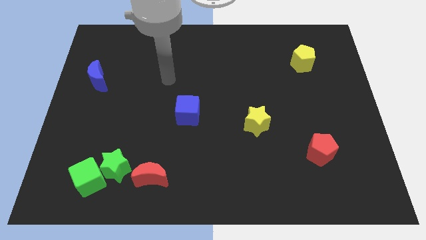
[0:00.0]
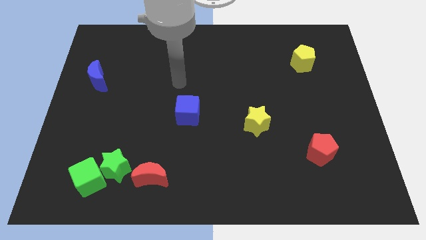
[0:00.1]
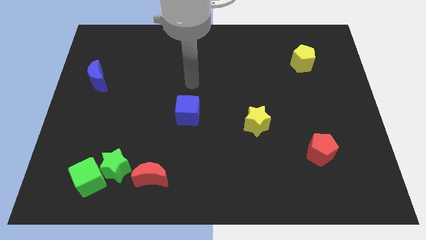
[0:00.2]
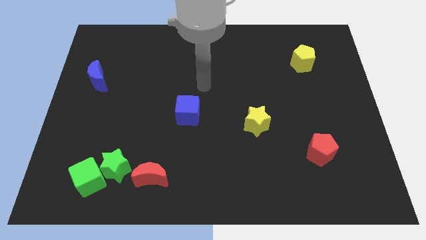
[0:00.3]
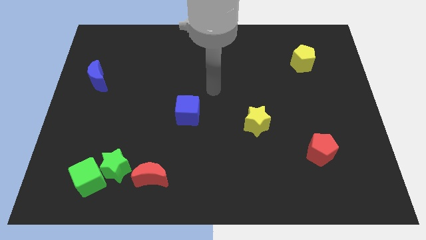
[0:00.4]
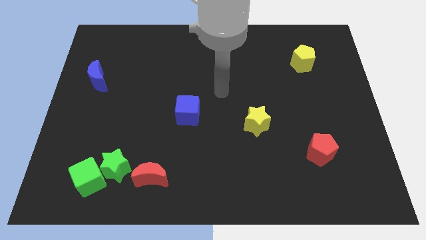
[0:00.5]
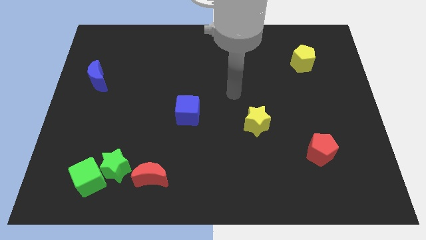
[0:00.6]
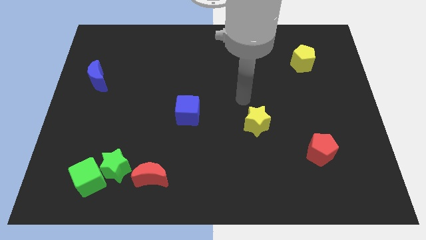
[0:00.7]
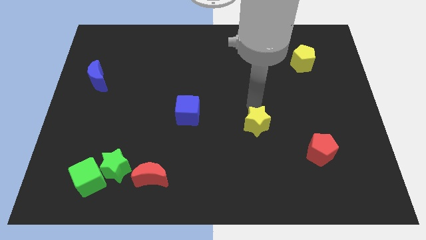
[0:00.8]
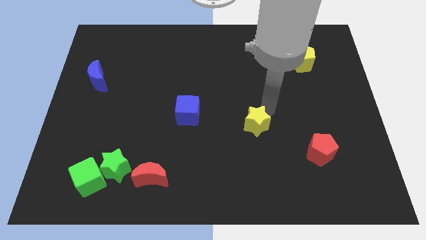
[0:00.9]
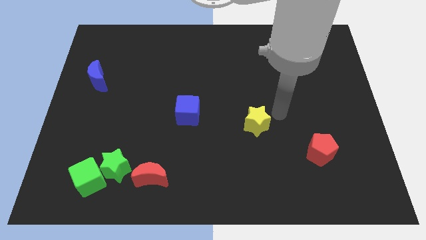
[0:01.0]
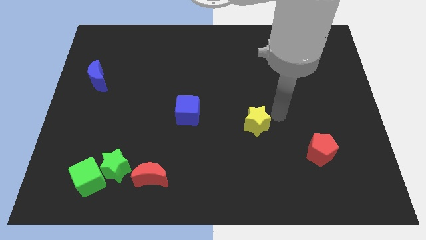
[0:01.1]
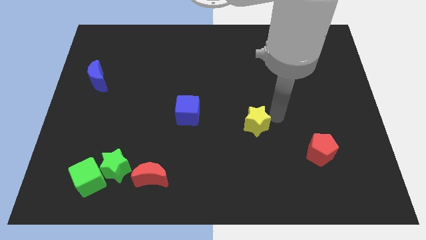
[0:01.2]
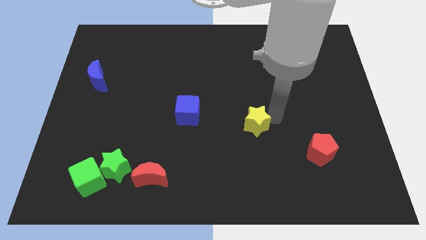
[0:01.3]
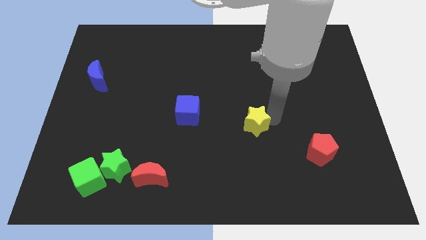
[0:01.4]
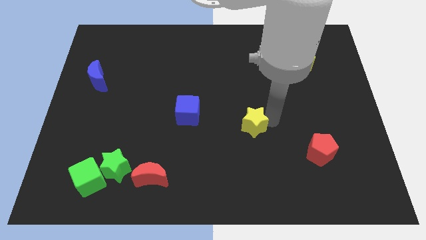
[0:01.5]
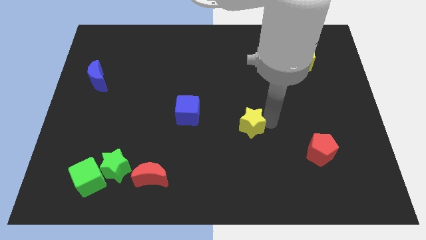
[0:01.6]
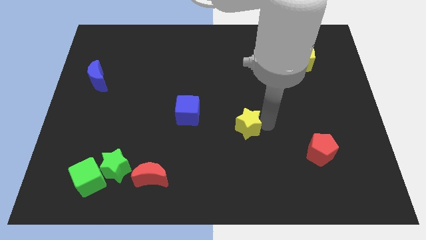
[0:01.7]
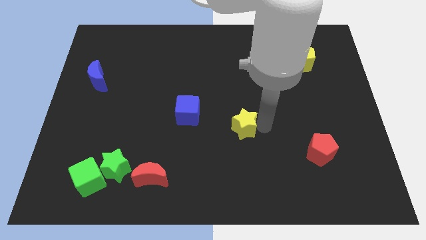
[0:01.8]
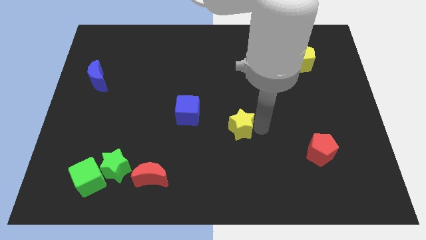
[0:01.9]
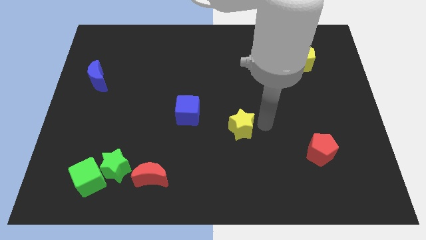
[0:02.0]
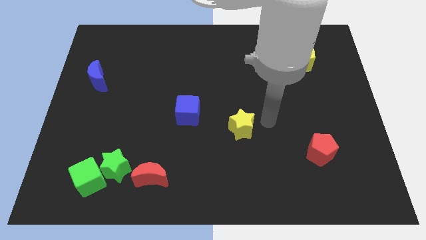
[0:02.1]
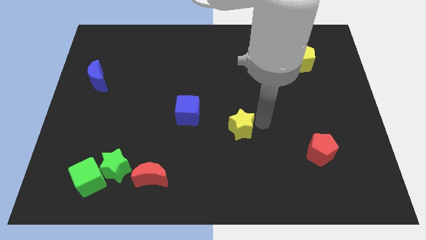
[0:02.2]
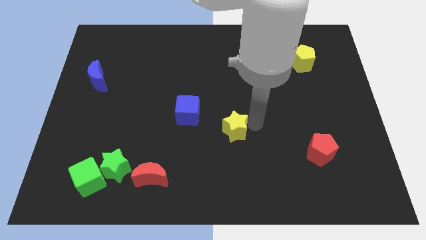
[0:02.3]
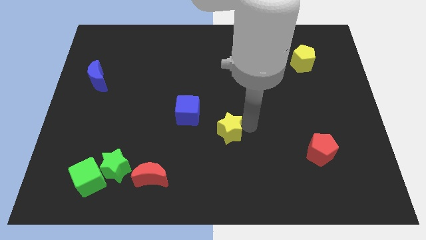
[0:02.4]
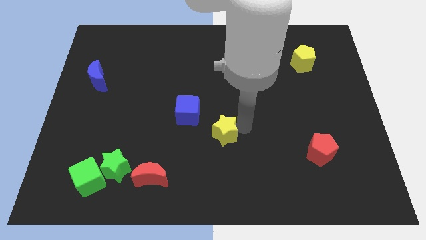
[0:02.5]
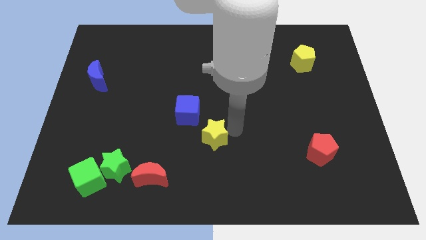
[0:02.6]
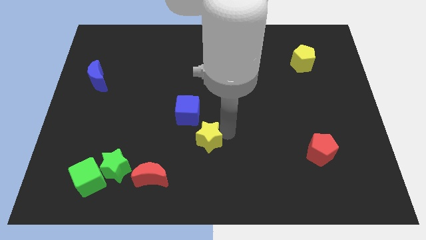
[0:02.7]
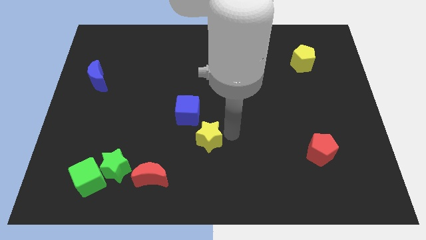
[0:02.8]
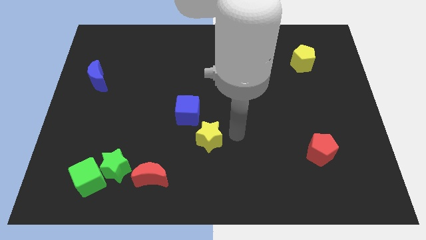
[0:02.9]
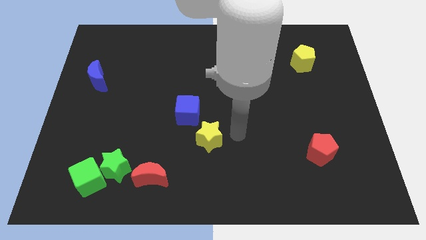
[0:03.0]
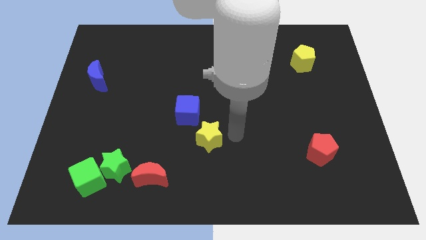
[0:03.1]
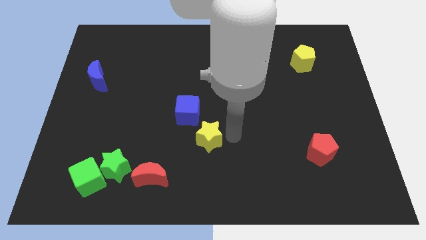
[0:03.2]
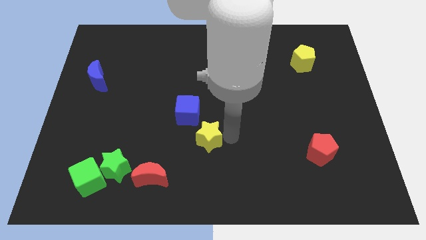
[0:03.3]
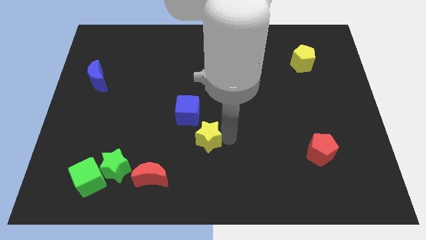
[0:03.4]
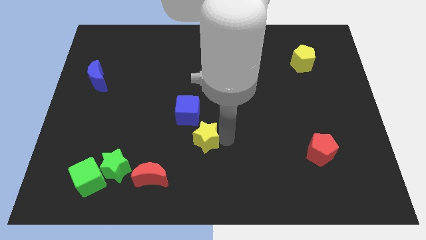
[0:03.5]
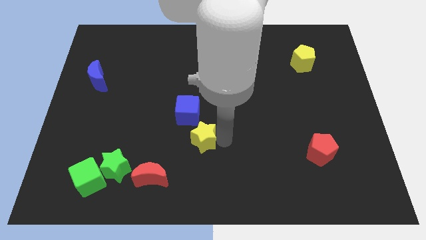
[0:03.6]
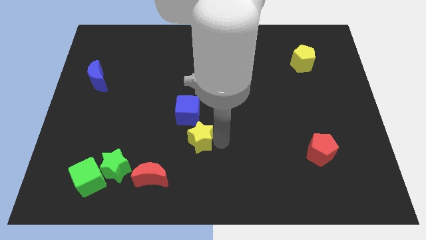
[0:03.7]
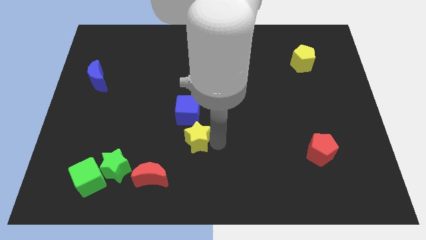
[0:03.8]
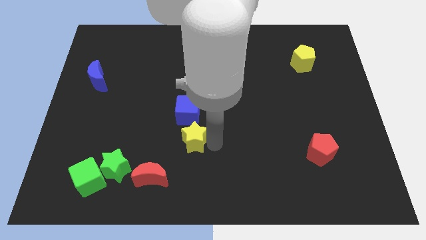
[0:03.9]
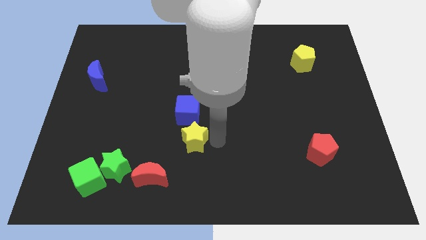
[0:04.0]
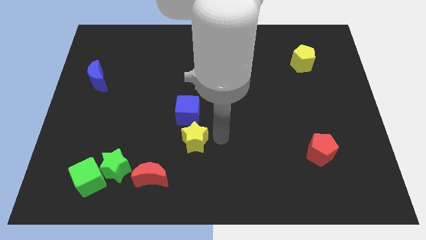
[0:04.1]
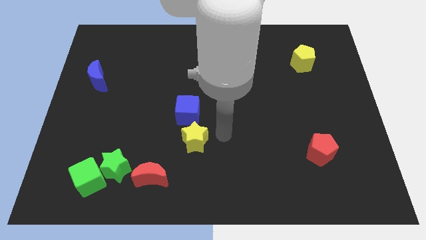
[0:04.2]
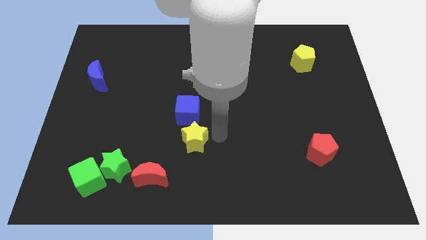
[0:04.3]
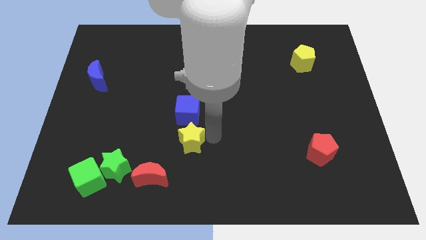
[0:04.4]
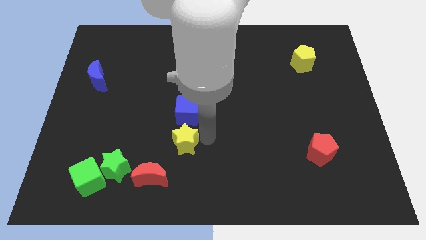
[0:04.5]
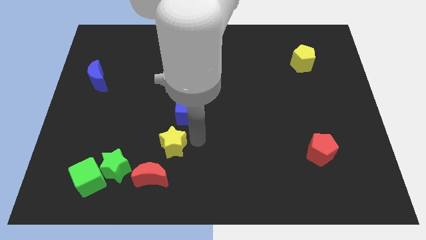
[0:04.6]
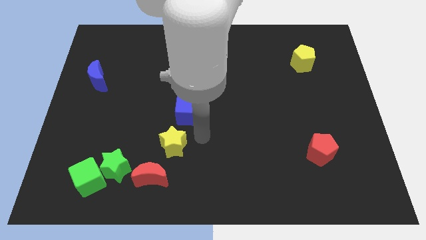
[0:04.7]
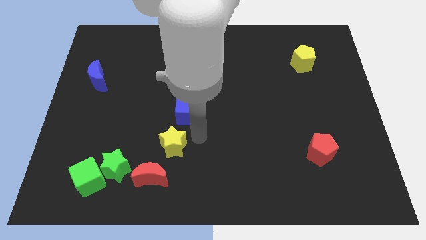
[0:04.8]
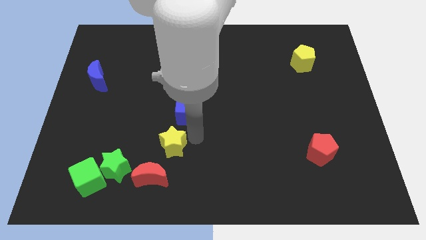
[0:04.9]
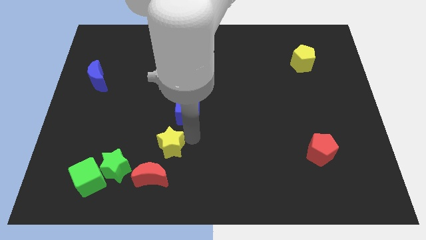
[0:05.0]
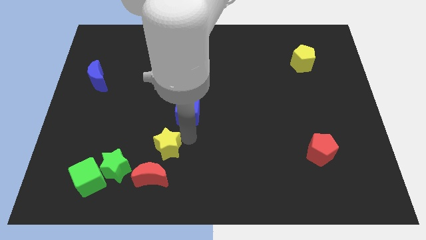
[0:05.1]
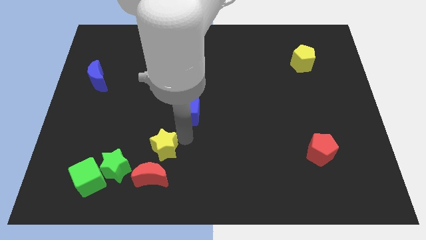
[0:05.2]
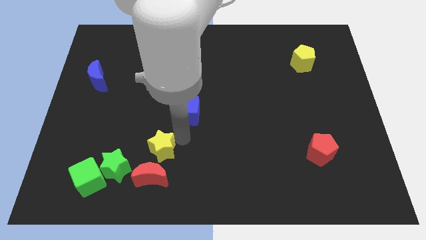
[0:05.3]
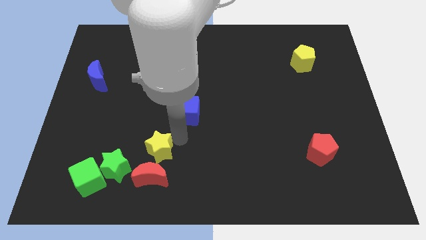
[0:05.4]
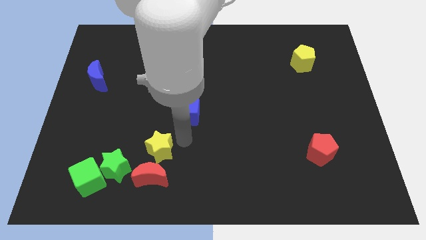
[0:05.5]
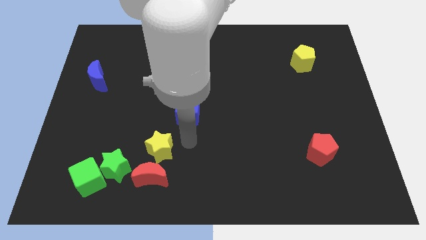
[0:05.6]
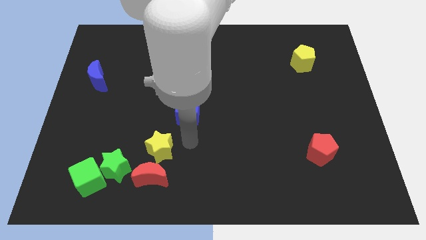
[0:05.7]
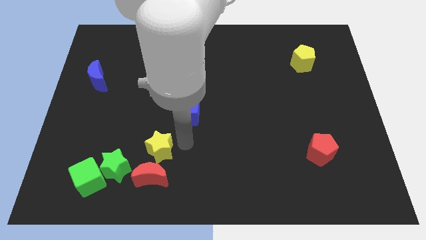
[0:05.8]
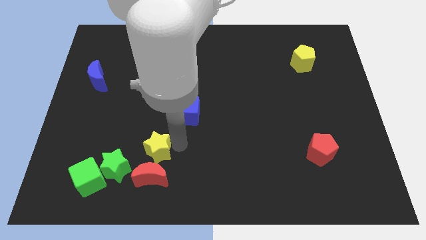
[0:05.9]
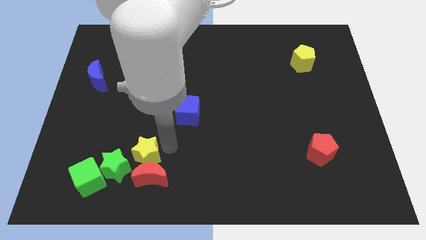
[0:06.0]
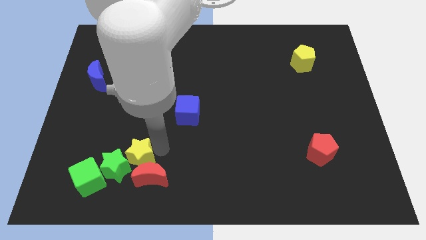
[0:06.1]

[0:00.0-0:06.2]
push the yellow star close to the green star

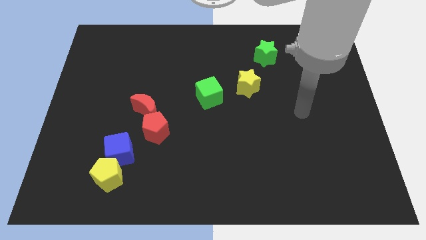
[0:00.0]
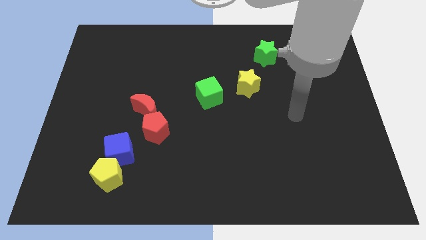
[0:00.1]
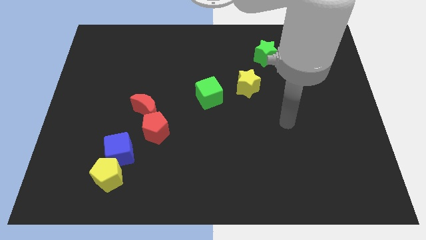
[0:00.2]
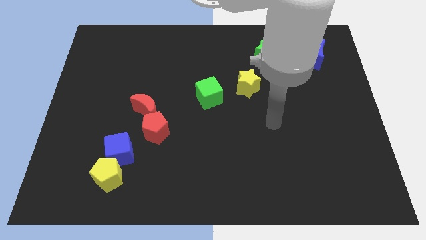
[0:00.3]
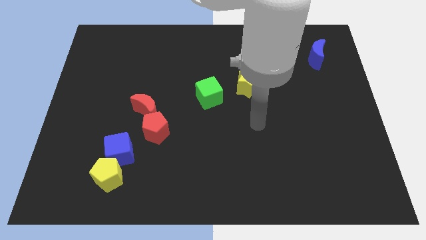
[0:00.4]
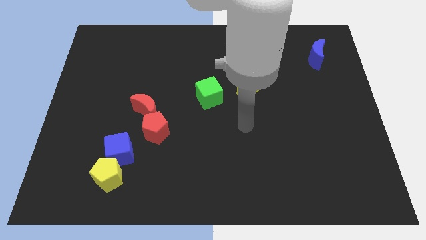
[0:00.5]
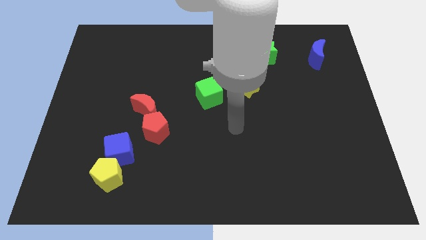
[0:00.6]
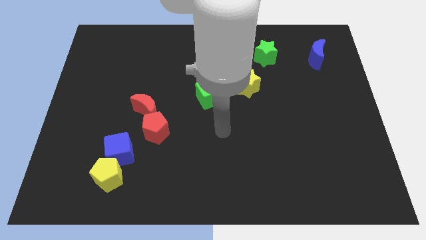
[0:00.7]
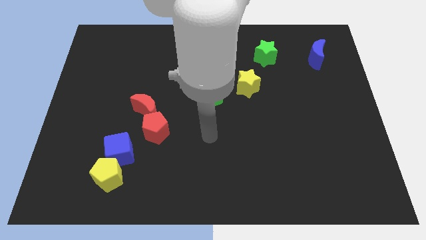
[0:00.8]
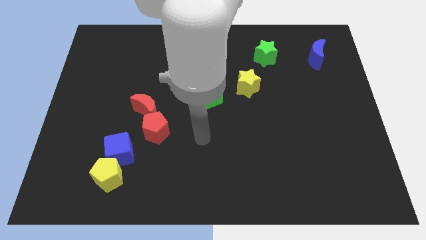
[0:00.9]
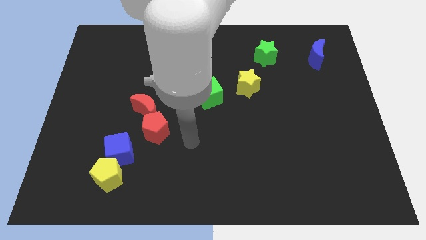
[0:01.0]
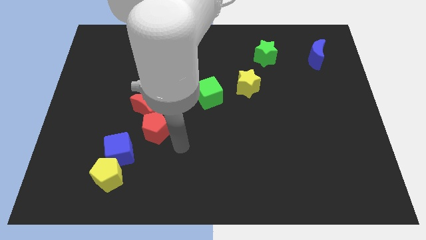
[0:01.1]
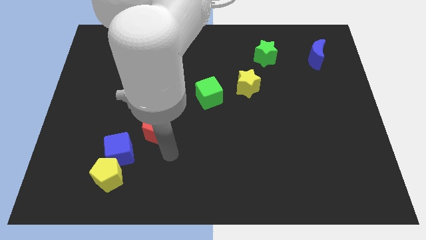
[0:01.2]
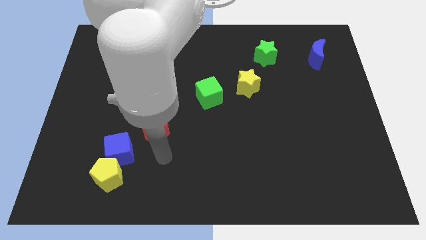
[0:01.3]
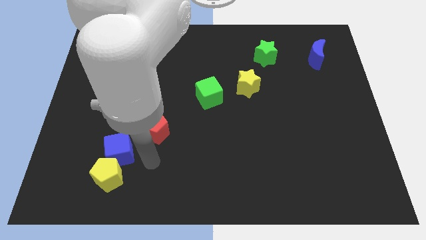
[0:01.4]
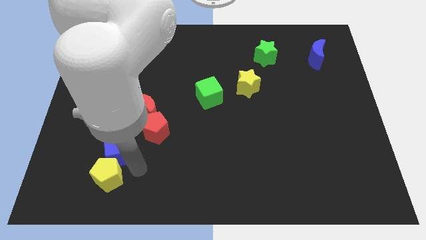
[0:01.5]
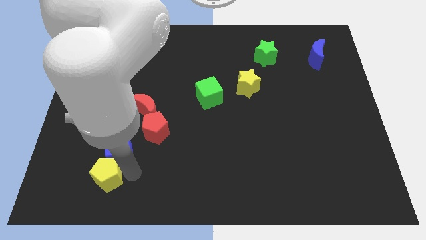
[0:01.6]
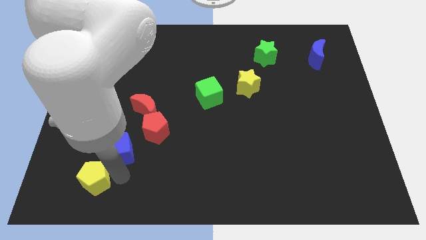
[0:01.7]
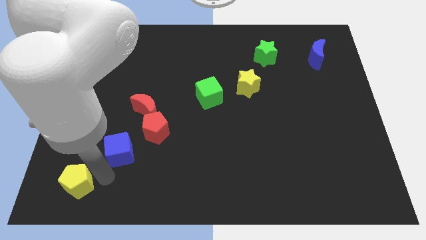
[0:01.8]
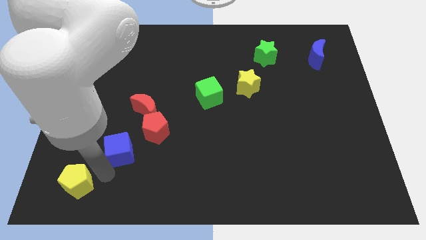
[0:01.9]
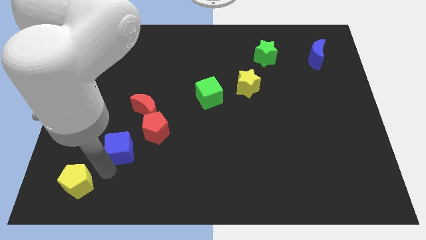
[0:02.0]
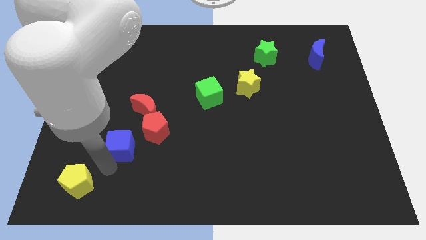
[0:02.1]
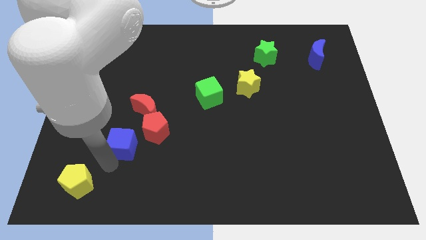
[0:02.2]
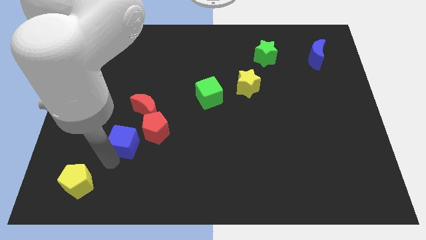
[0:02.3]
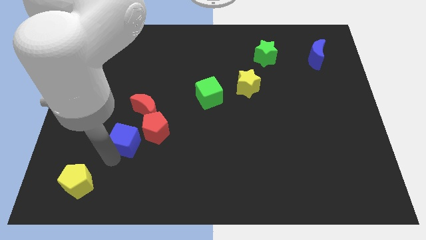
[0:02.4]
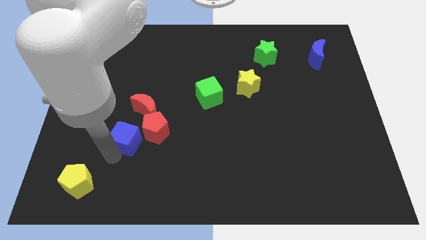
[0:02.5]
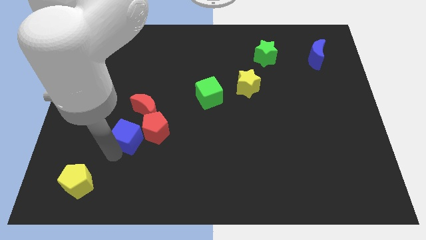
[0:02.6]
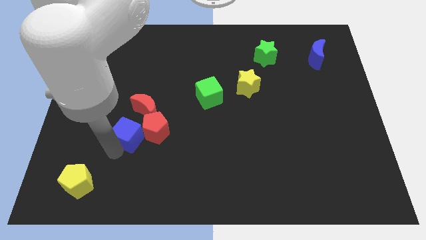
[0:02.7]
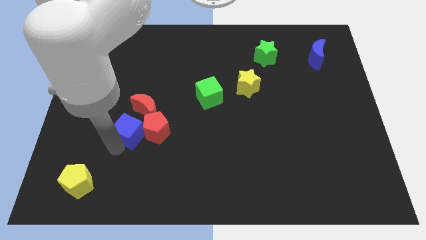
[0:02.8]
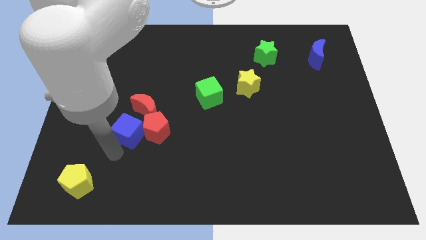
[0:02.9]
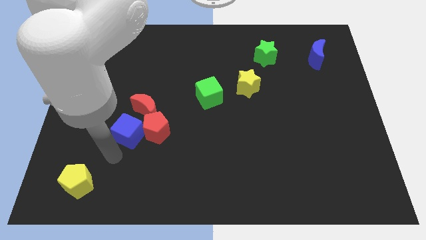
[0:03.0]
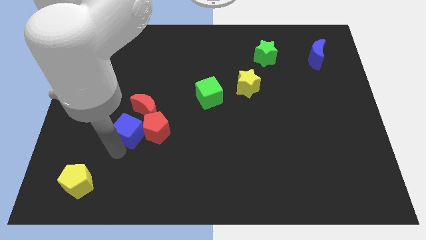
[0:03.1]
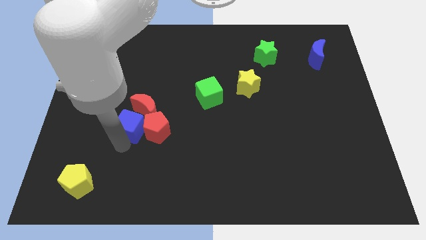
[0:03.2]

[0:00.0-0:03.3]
push the blue cube to the red moon
